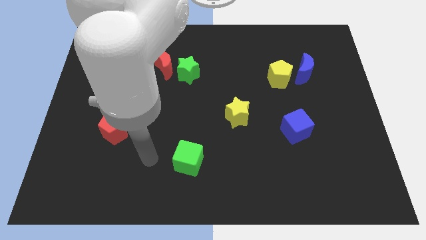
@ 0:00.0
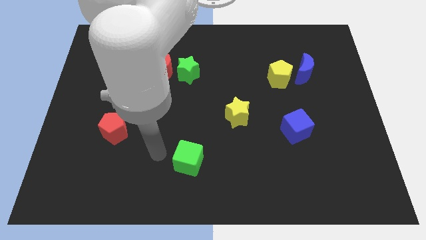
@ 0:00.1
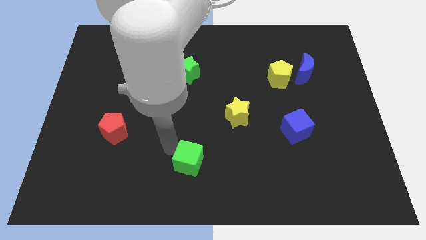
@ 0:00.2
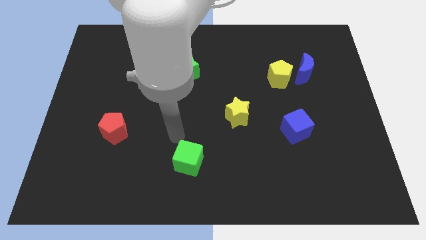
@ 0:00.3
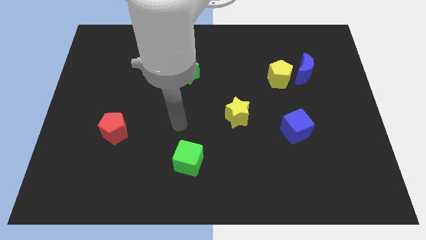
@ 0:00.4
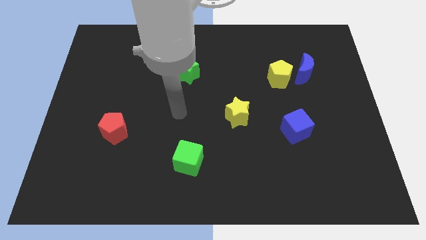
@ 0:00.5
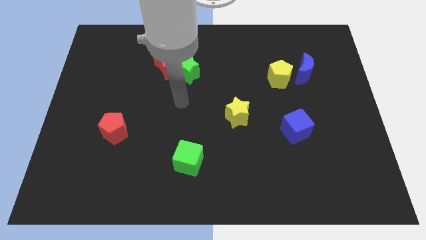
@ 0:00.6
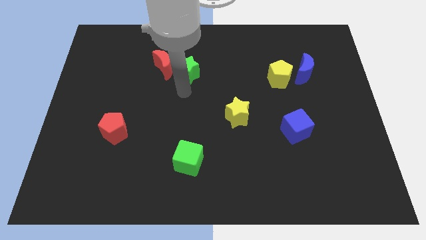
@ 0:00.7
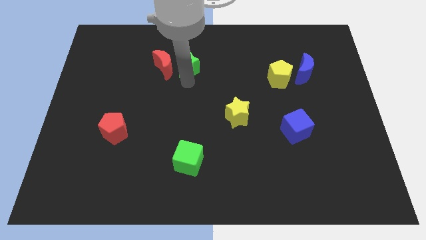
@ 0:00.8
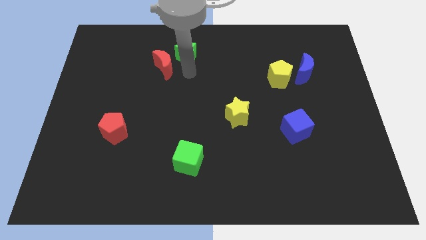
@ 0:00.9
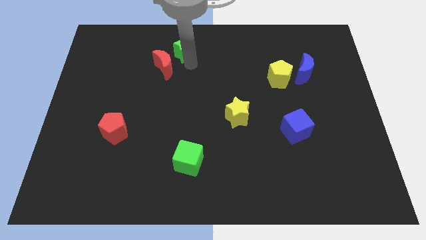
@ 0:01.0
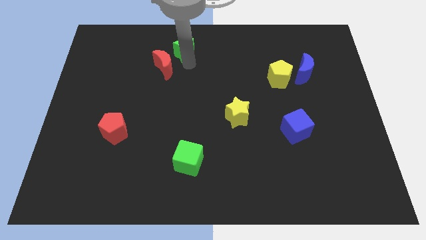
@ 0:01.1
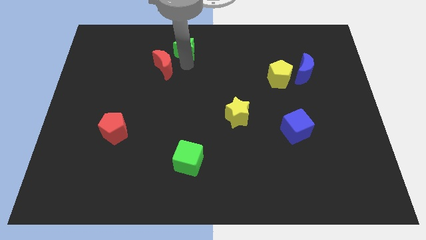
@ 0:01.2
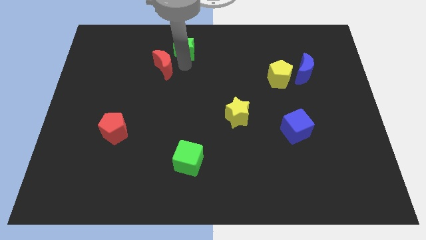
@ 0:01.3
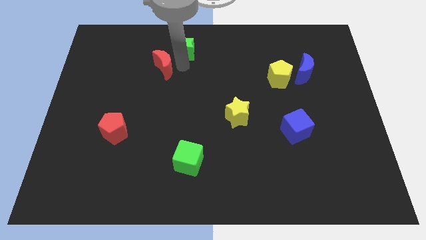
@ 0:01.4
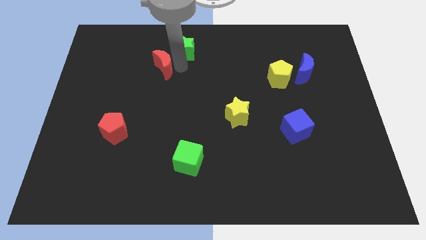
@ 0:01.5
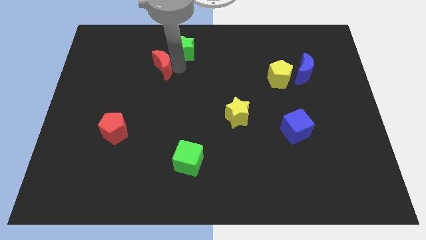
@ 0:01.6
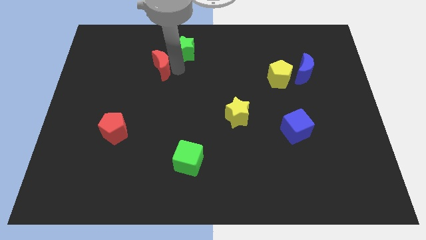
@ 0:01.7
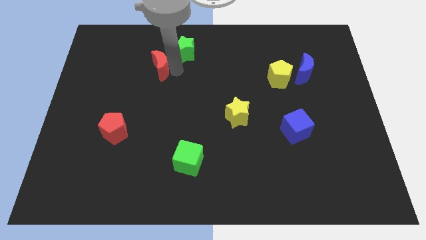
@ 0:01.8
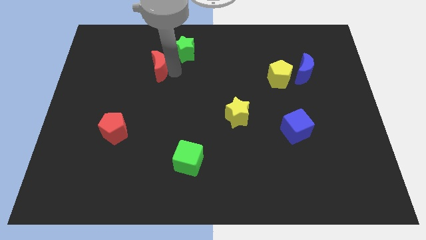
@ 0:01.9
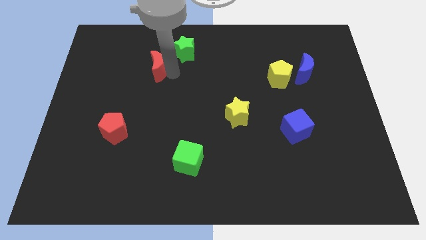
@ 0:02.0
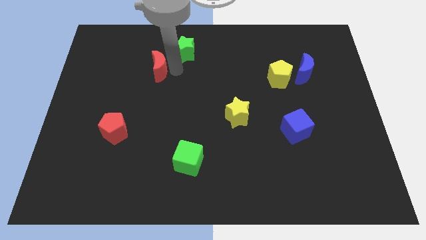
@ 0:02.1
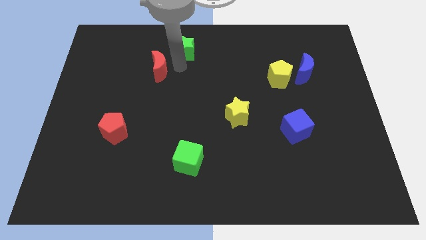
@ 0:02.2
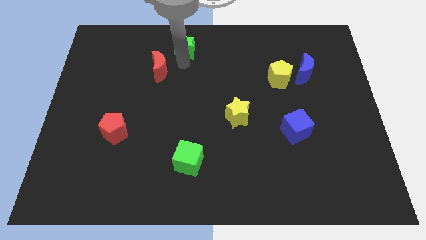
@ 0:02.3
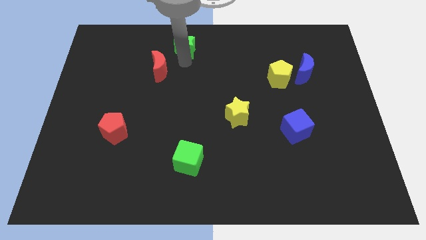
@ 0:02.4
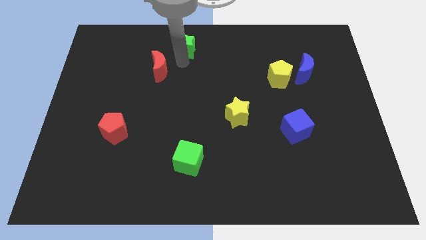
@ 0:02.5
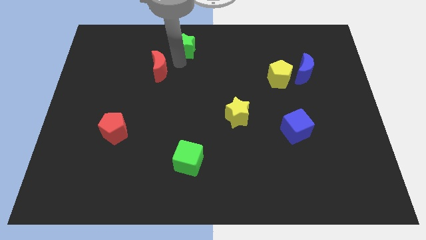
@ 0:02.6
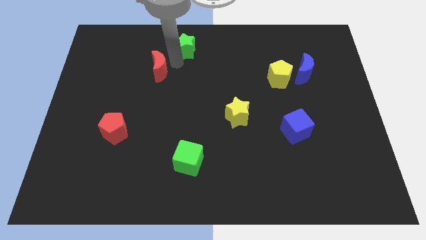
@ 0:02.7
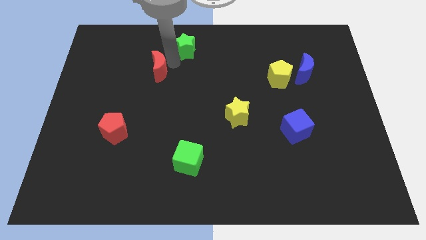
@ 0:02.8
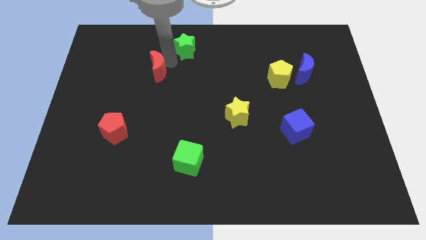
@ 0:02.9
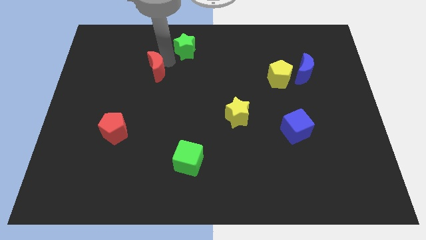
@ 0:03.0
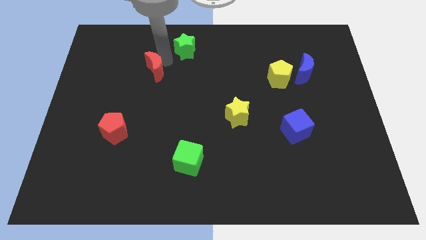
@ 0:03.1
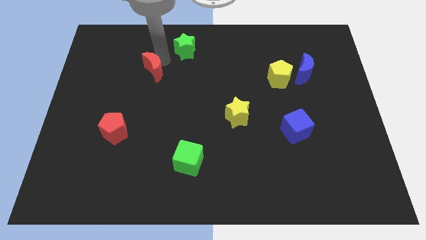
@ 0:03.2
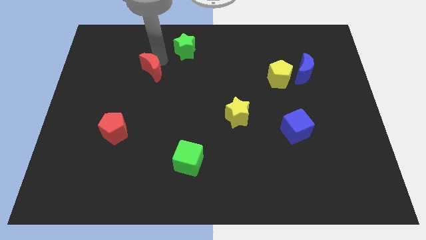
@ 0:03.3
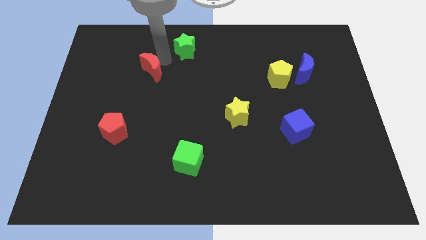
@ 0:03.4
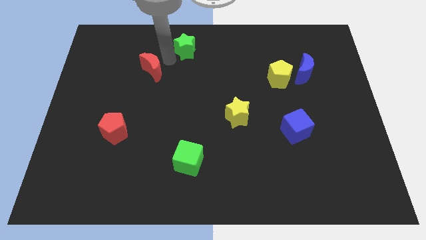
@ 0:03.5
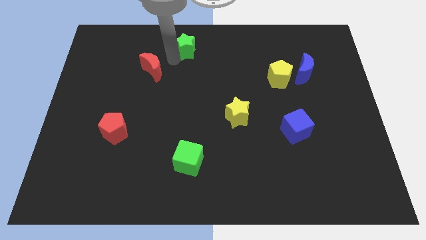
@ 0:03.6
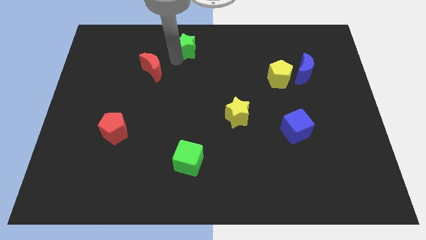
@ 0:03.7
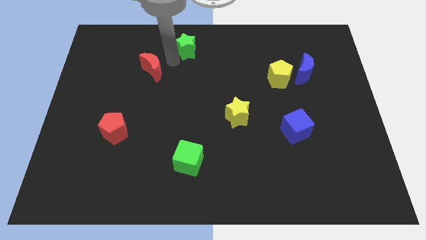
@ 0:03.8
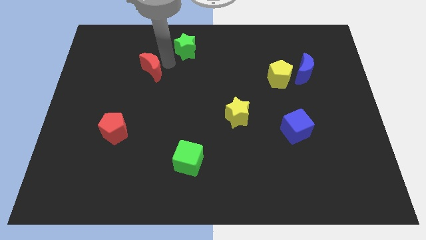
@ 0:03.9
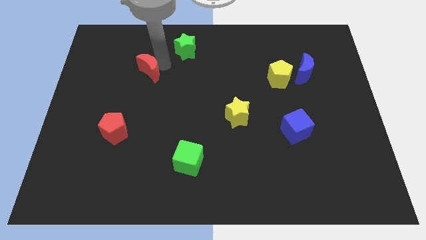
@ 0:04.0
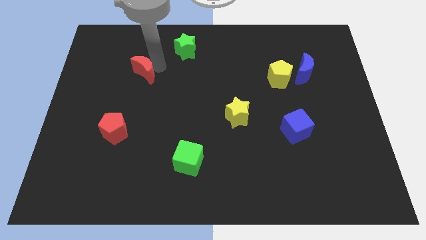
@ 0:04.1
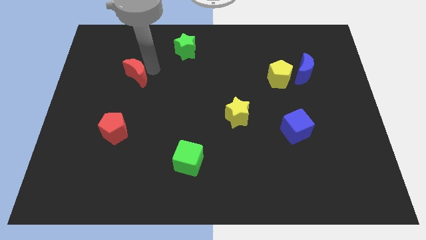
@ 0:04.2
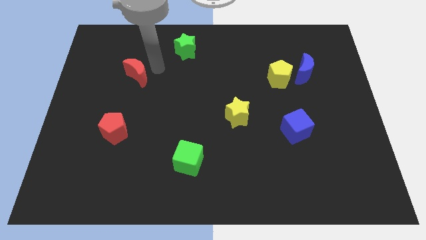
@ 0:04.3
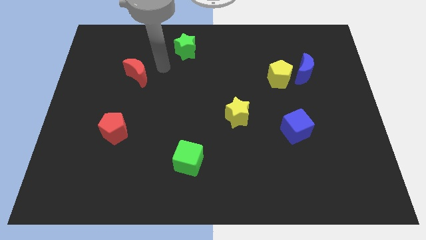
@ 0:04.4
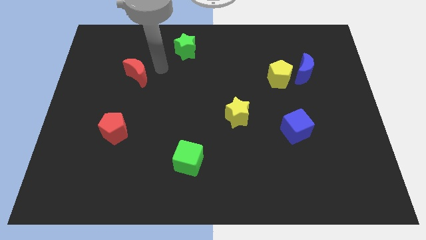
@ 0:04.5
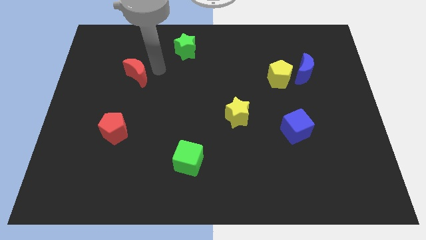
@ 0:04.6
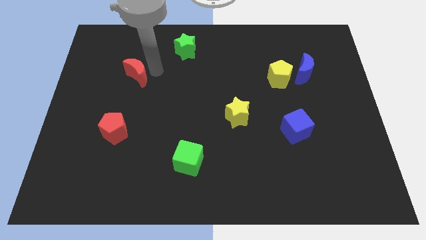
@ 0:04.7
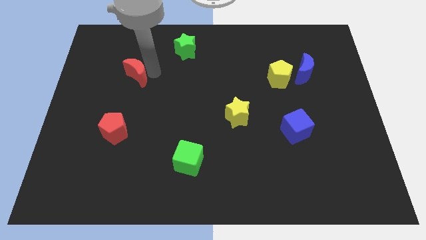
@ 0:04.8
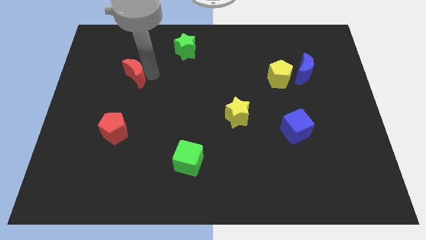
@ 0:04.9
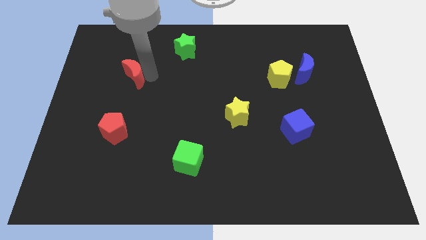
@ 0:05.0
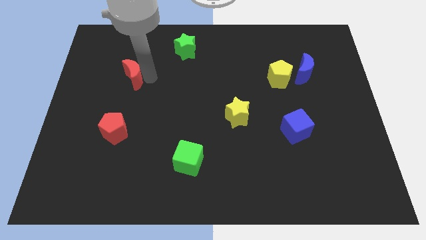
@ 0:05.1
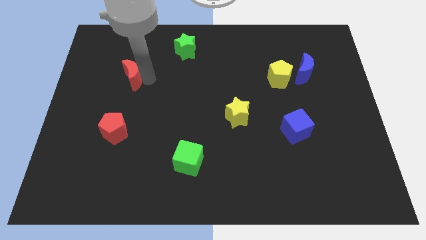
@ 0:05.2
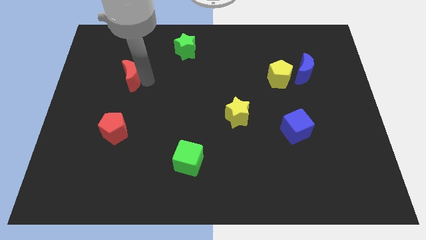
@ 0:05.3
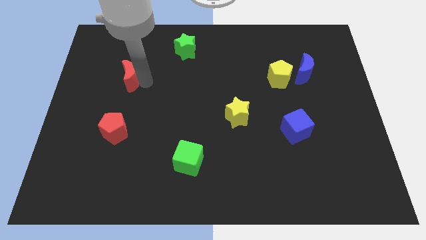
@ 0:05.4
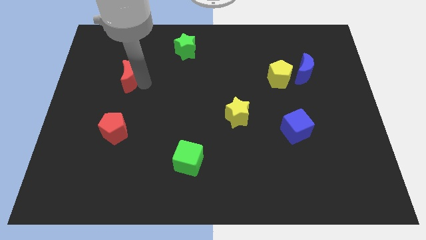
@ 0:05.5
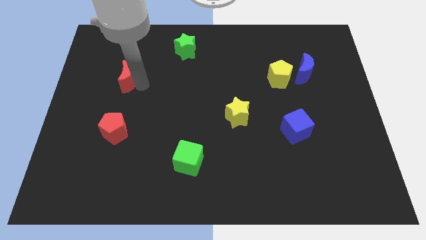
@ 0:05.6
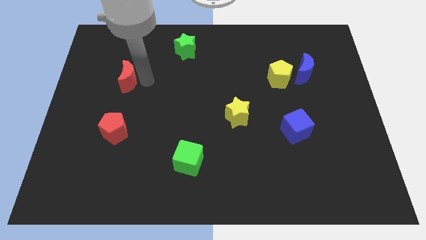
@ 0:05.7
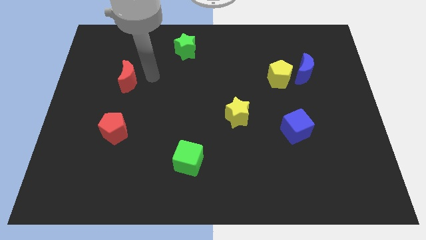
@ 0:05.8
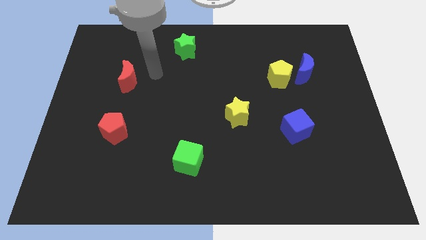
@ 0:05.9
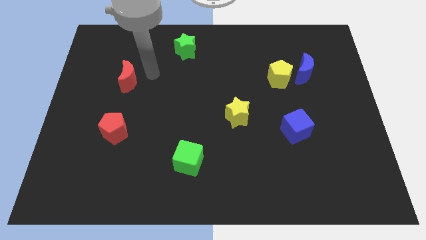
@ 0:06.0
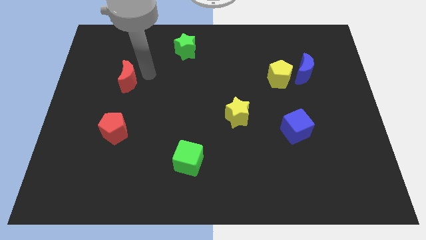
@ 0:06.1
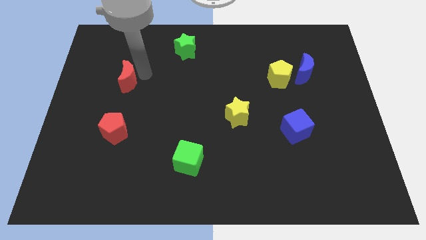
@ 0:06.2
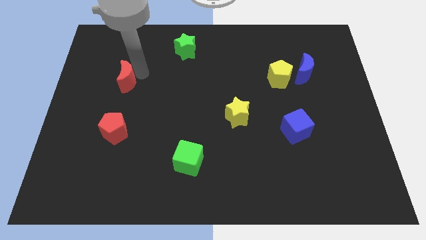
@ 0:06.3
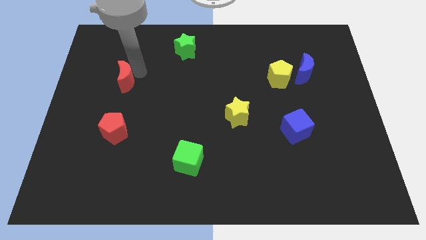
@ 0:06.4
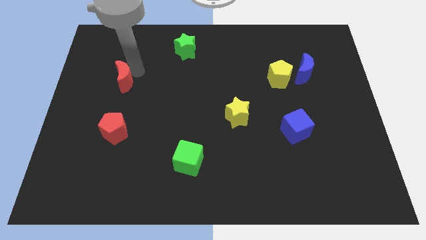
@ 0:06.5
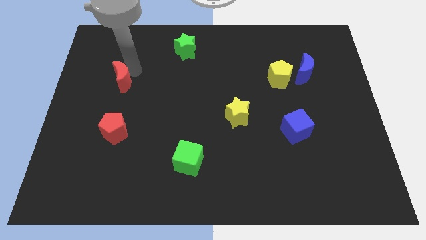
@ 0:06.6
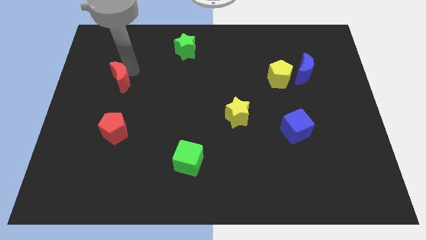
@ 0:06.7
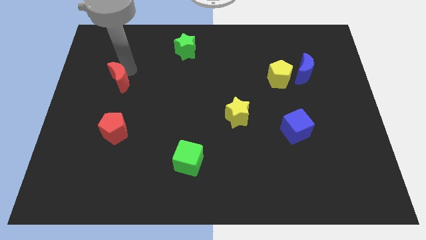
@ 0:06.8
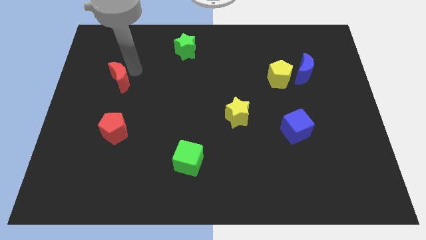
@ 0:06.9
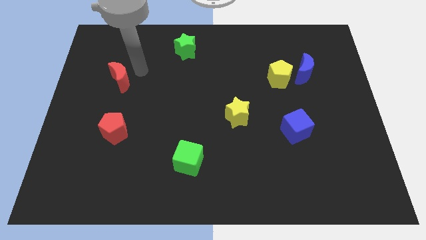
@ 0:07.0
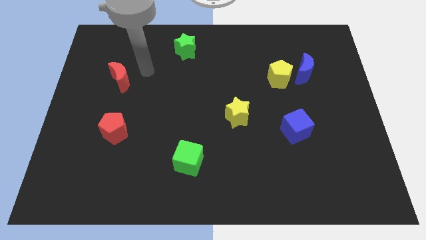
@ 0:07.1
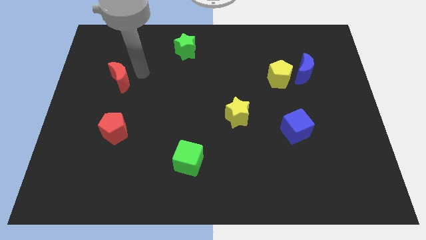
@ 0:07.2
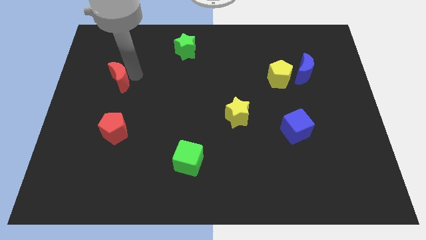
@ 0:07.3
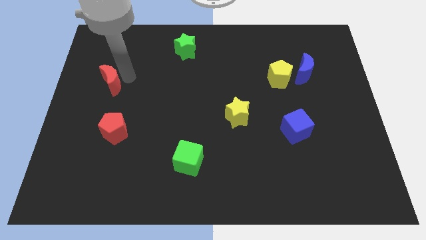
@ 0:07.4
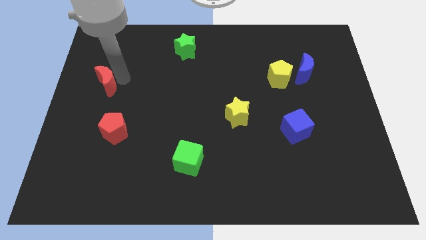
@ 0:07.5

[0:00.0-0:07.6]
slide the red moon to the left side
